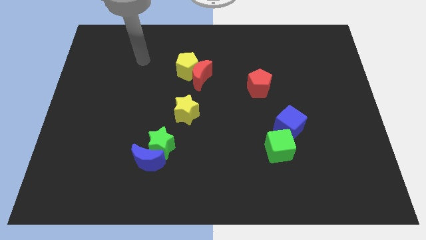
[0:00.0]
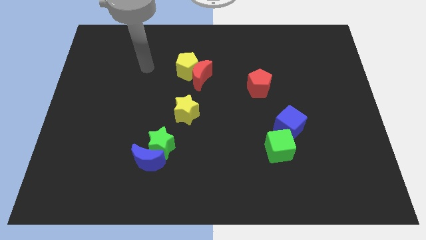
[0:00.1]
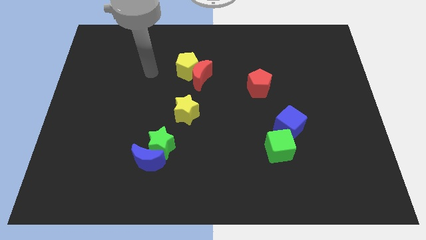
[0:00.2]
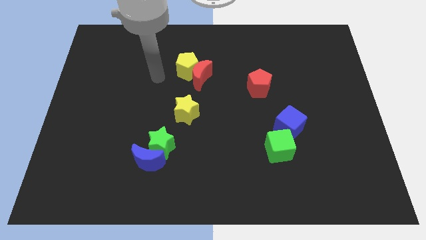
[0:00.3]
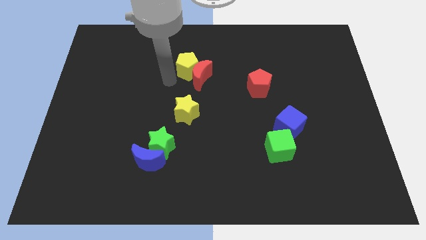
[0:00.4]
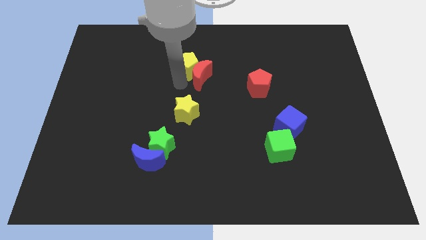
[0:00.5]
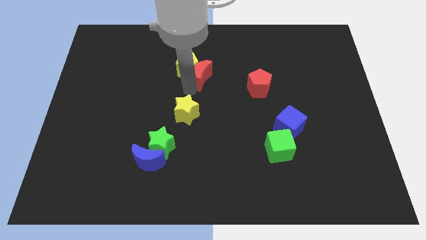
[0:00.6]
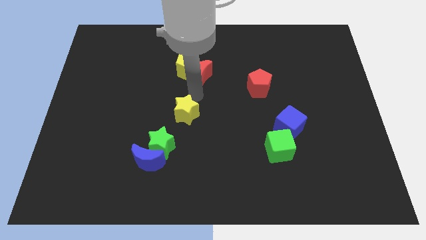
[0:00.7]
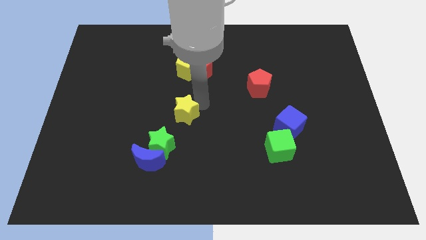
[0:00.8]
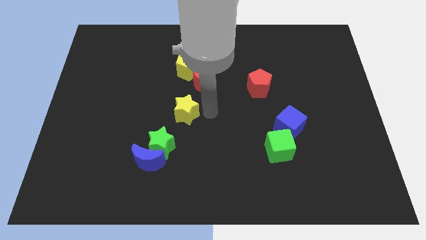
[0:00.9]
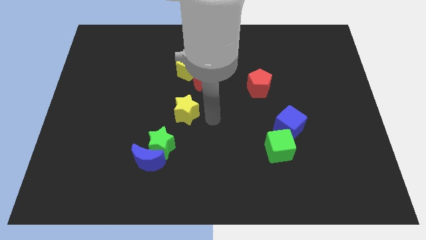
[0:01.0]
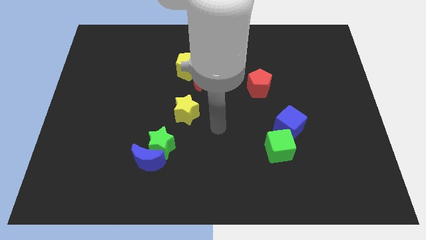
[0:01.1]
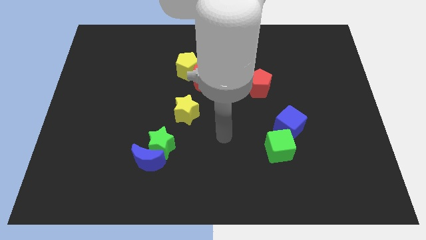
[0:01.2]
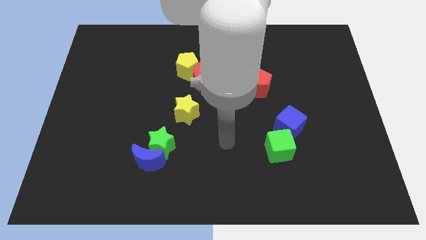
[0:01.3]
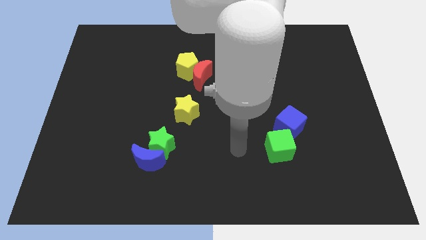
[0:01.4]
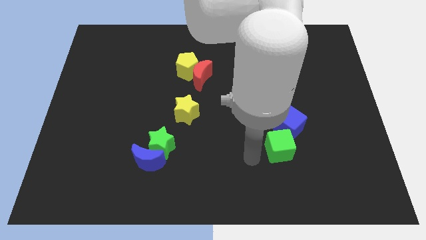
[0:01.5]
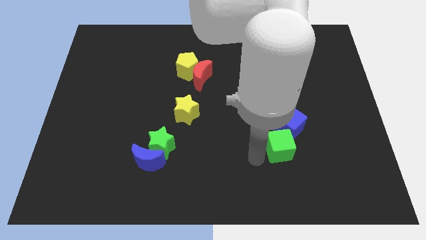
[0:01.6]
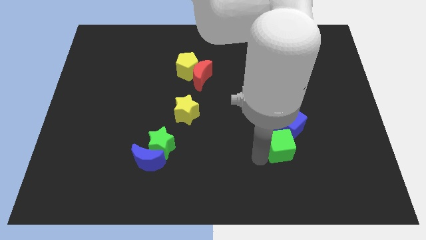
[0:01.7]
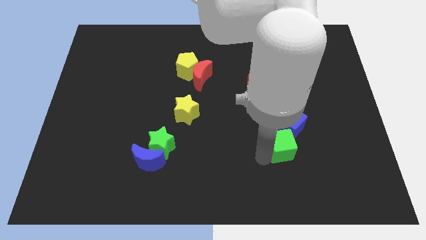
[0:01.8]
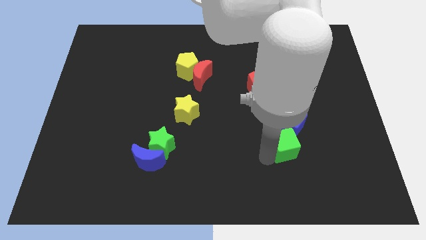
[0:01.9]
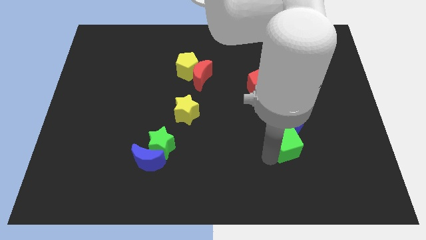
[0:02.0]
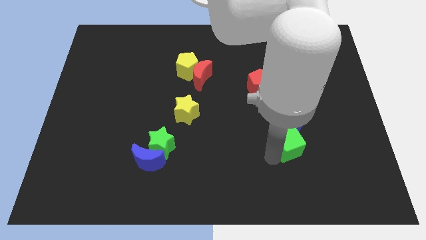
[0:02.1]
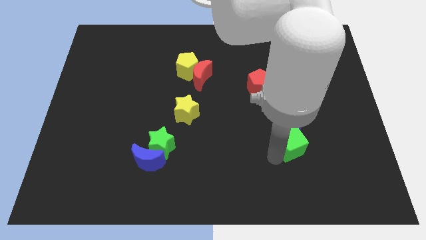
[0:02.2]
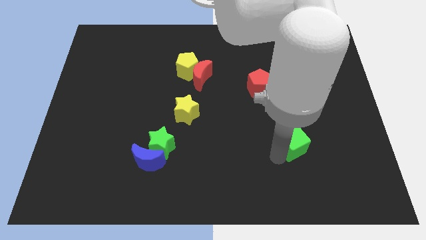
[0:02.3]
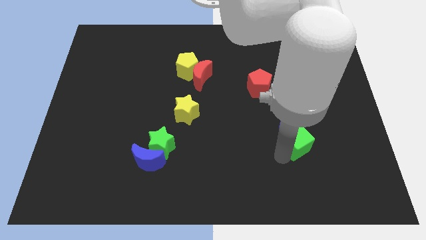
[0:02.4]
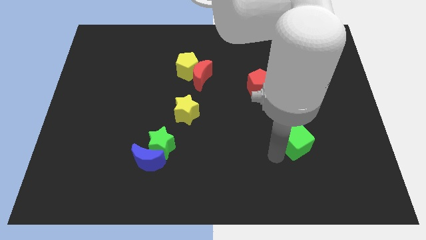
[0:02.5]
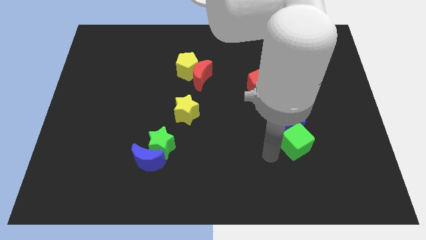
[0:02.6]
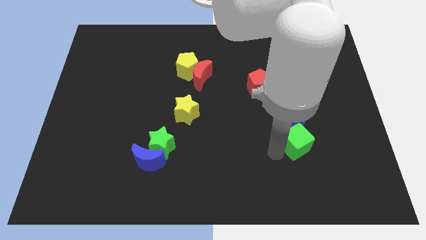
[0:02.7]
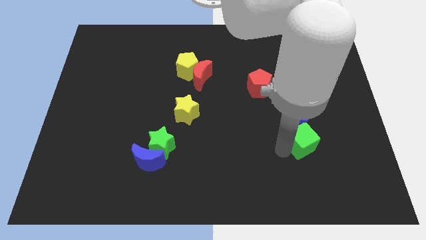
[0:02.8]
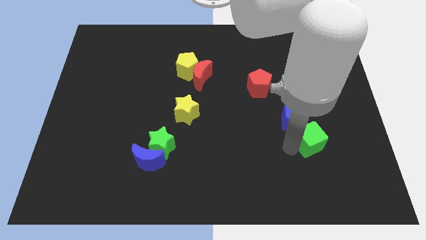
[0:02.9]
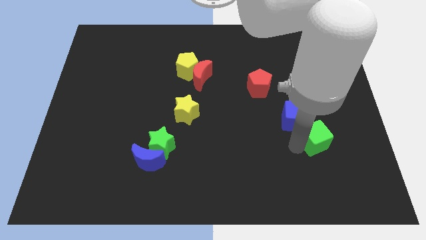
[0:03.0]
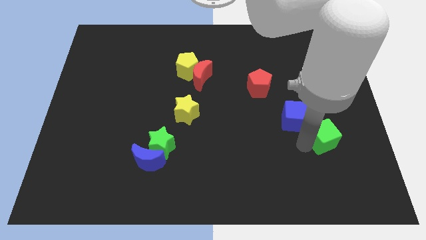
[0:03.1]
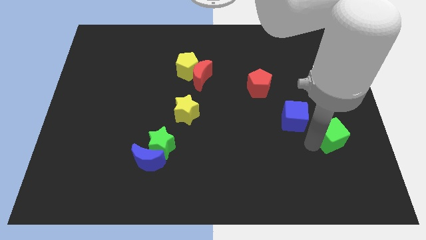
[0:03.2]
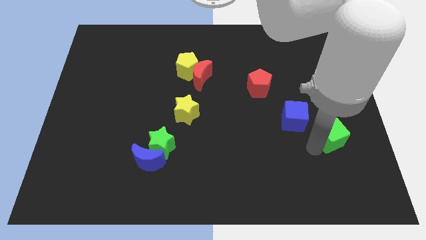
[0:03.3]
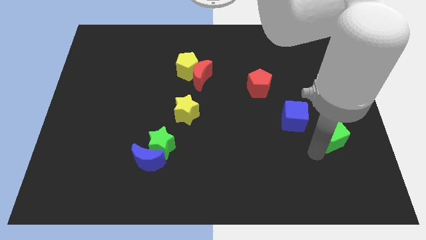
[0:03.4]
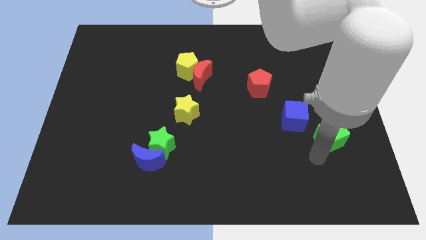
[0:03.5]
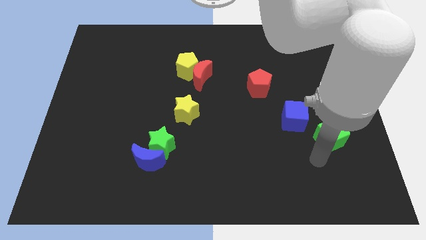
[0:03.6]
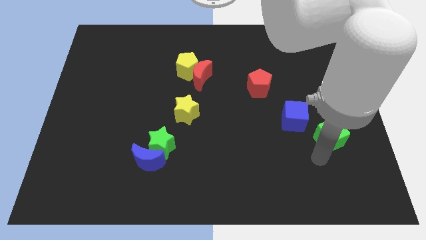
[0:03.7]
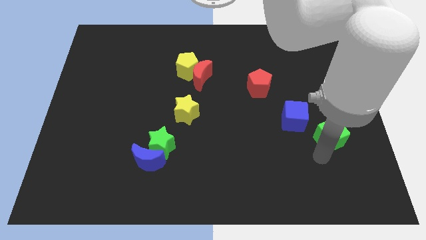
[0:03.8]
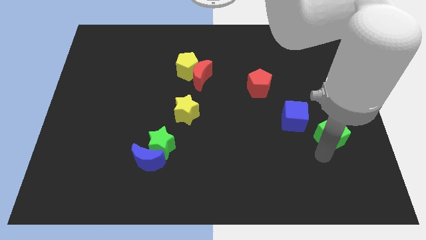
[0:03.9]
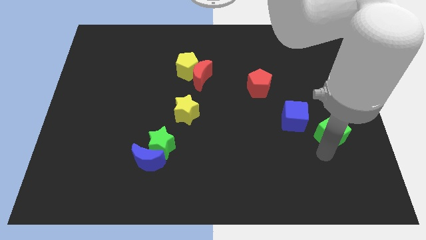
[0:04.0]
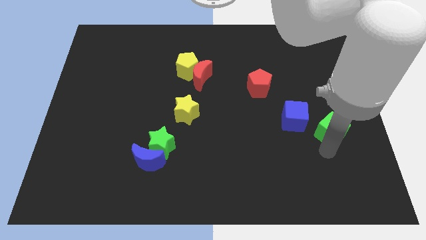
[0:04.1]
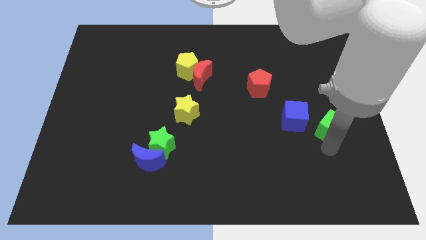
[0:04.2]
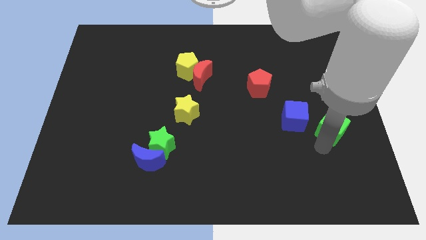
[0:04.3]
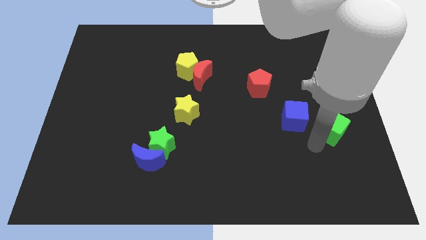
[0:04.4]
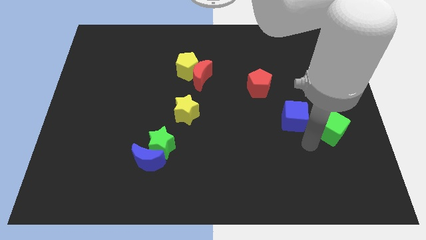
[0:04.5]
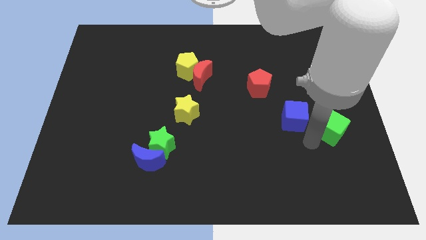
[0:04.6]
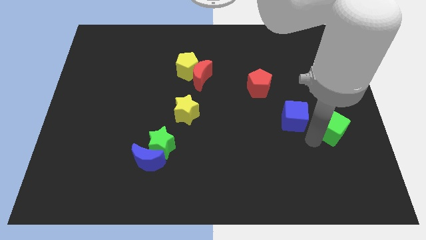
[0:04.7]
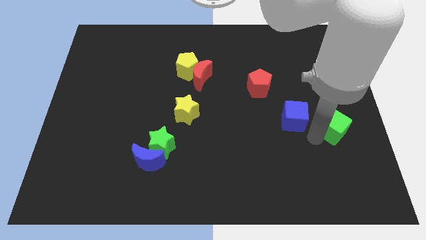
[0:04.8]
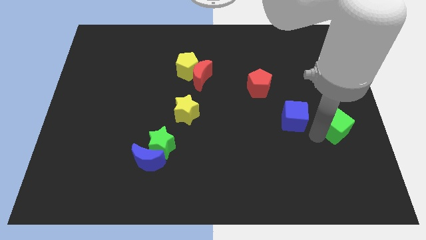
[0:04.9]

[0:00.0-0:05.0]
push the green cube to the right side of the board

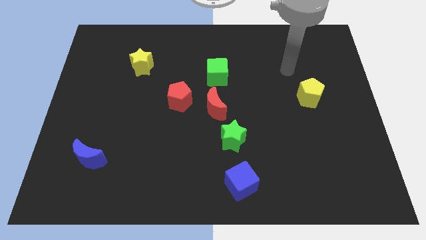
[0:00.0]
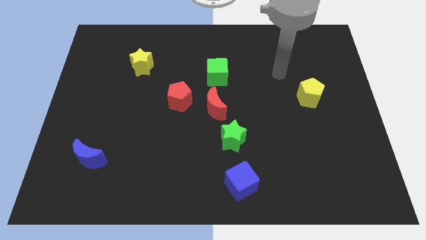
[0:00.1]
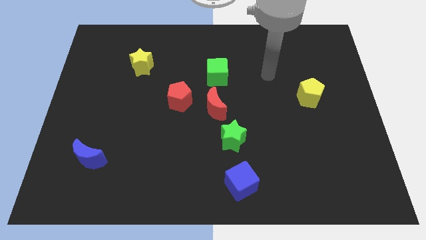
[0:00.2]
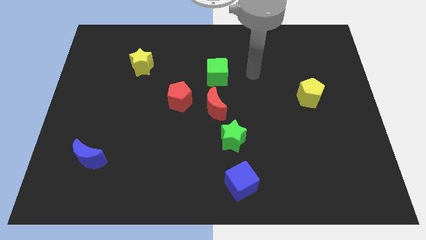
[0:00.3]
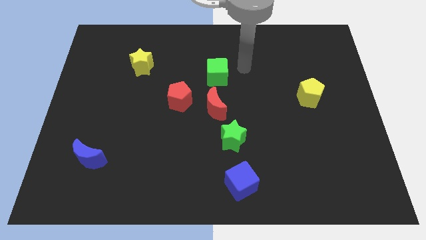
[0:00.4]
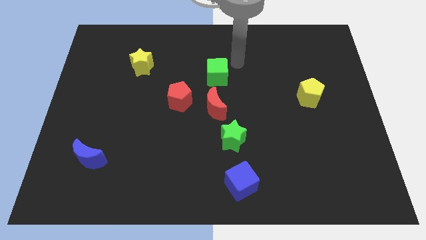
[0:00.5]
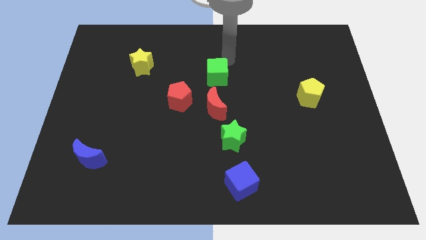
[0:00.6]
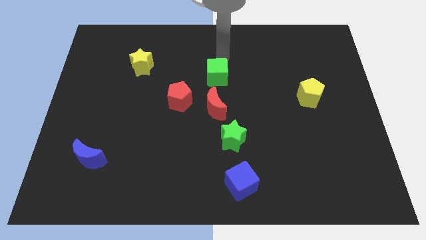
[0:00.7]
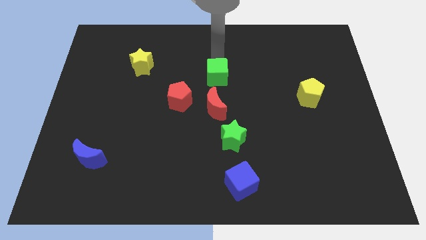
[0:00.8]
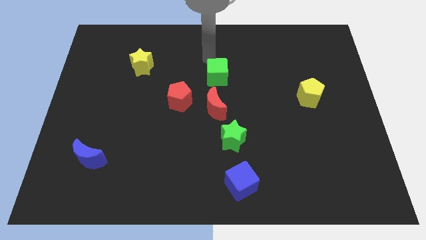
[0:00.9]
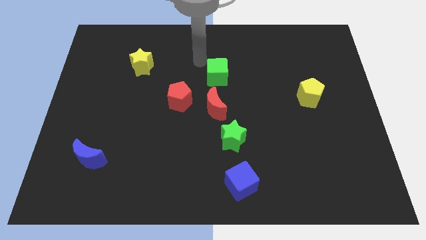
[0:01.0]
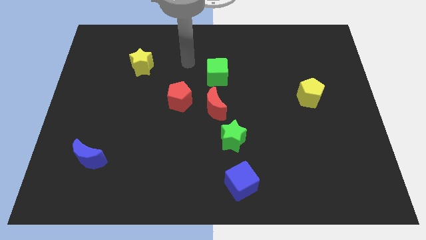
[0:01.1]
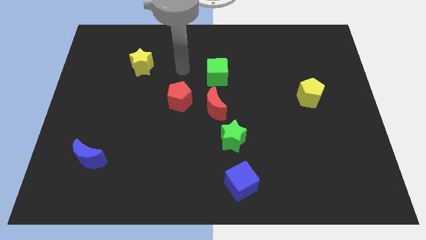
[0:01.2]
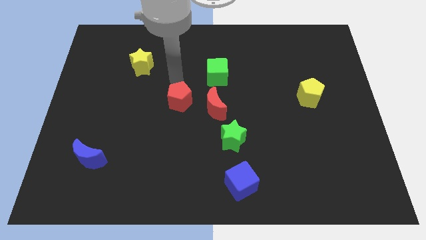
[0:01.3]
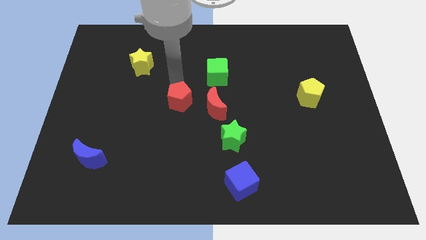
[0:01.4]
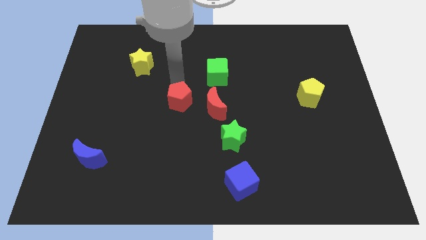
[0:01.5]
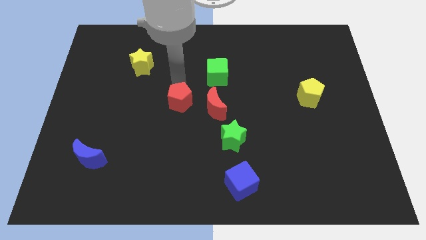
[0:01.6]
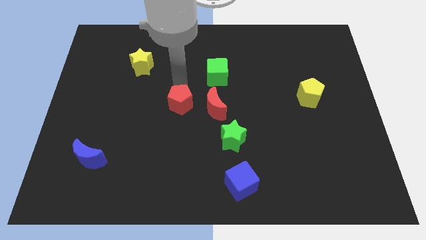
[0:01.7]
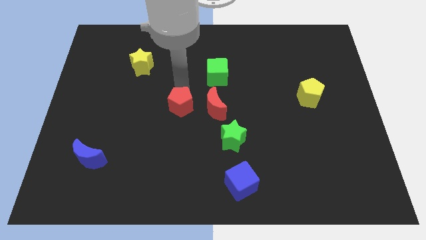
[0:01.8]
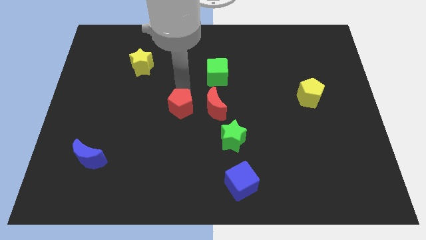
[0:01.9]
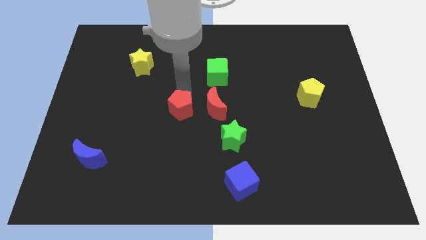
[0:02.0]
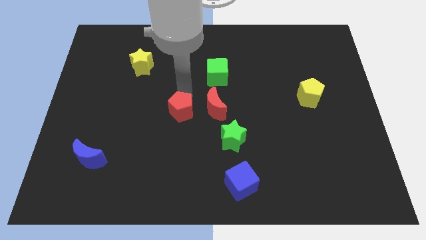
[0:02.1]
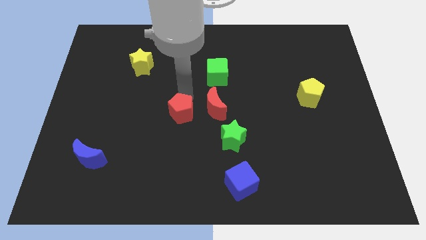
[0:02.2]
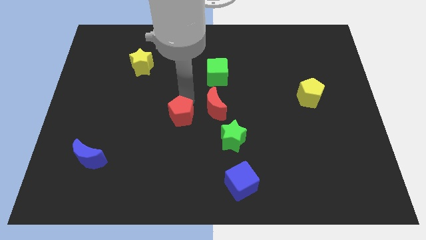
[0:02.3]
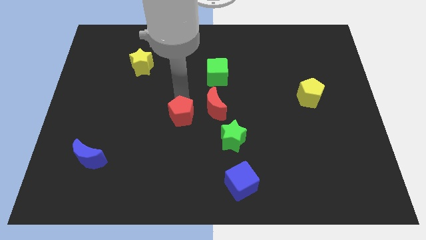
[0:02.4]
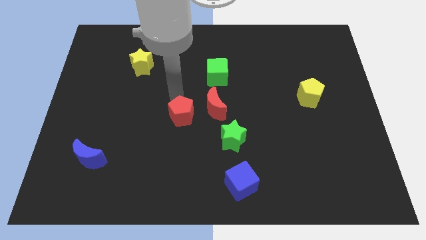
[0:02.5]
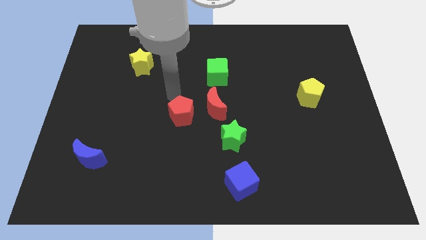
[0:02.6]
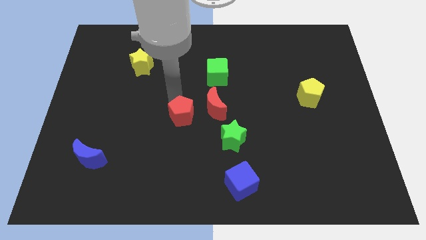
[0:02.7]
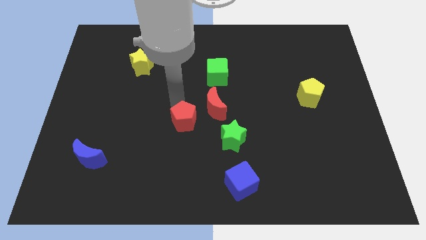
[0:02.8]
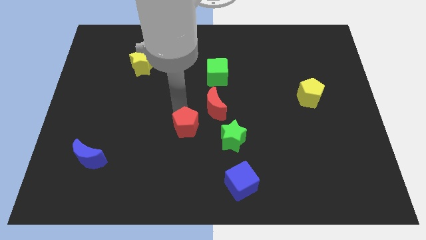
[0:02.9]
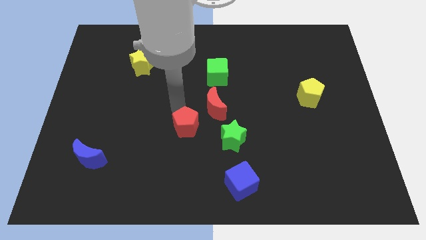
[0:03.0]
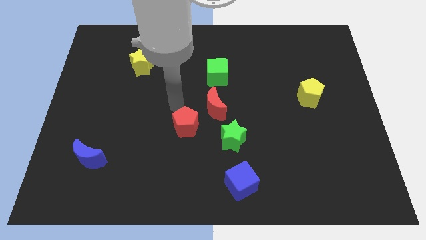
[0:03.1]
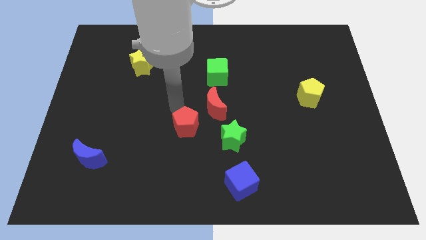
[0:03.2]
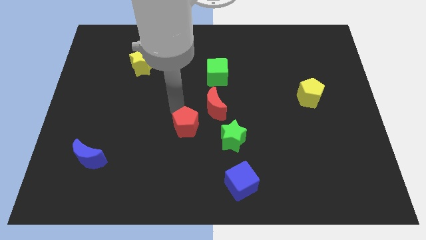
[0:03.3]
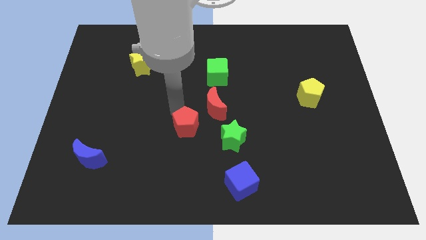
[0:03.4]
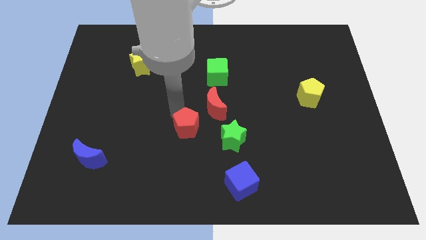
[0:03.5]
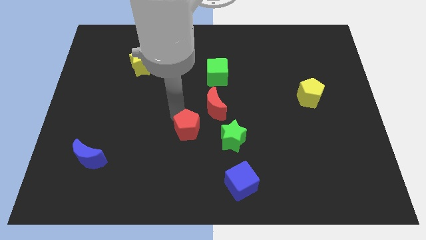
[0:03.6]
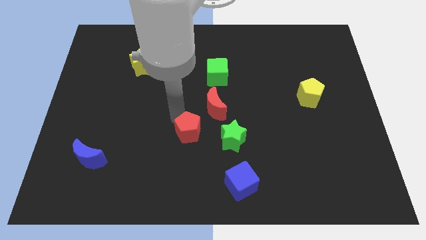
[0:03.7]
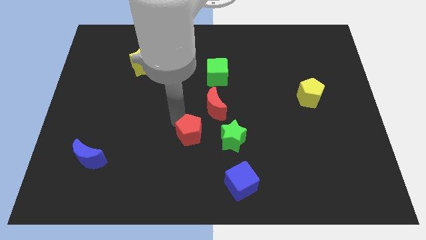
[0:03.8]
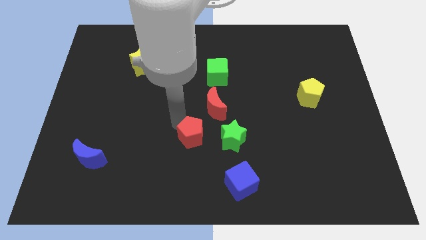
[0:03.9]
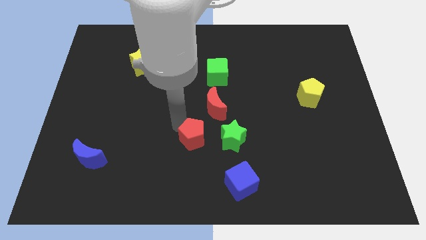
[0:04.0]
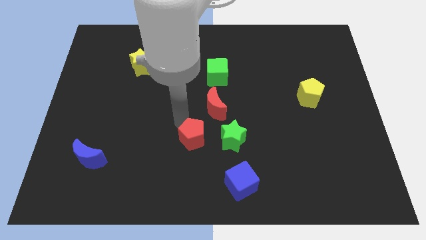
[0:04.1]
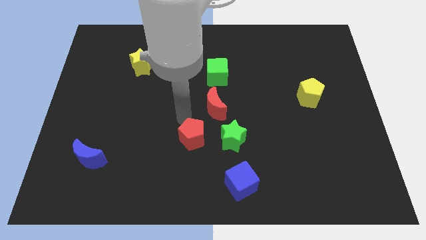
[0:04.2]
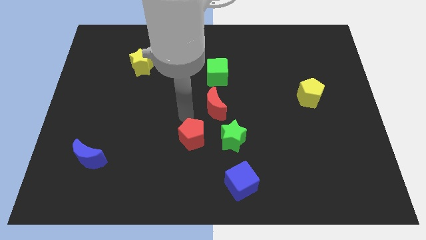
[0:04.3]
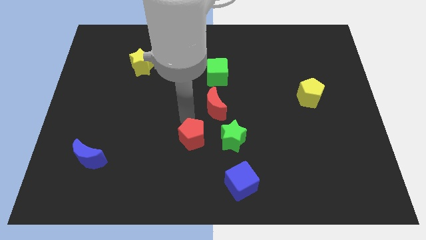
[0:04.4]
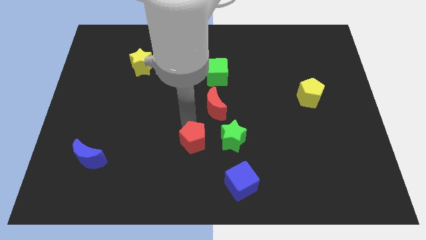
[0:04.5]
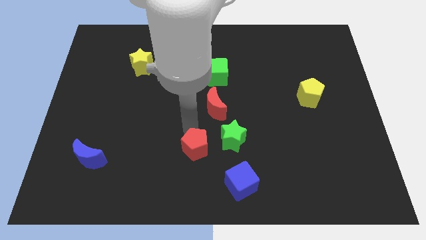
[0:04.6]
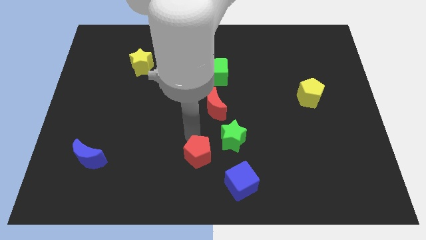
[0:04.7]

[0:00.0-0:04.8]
move the red pentagon to the bottom
